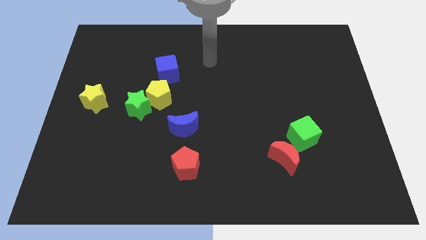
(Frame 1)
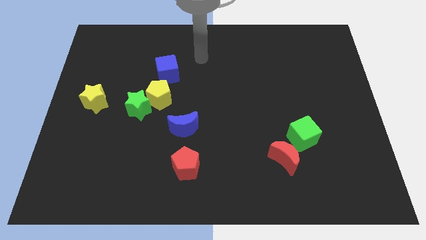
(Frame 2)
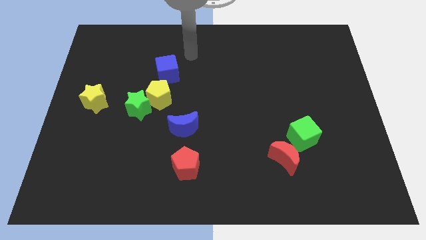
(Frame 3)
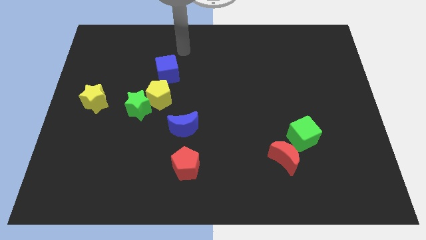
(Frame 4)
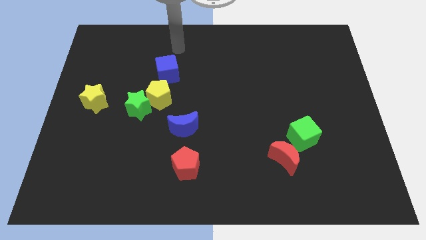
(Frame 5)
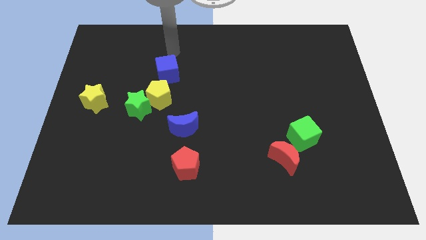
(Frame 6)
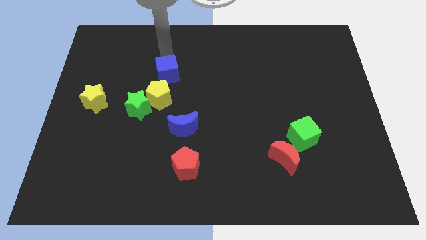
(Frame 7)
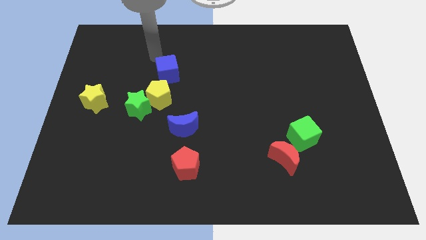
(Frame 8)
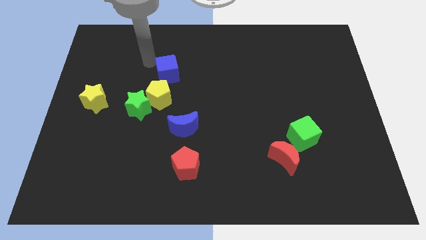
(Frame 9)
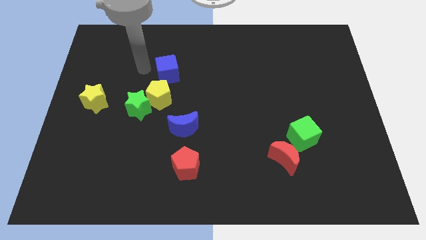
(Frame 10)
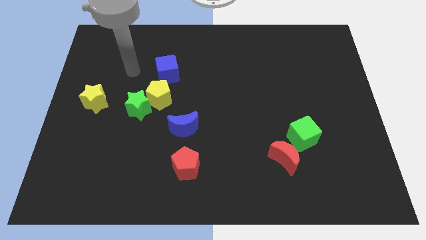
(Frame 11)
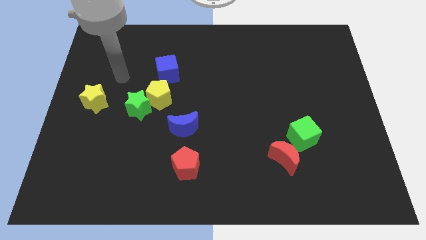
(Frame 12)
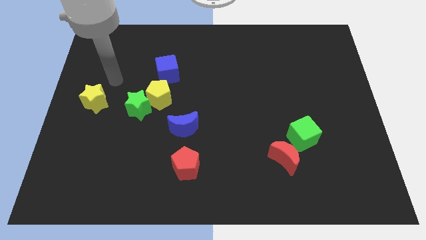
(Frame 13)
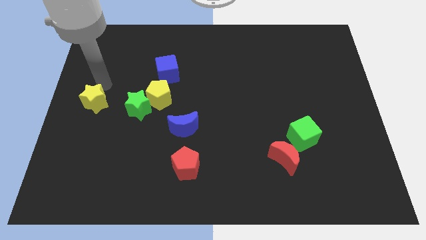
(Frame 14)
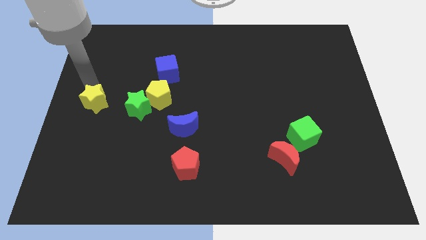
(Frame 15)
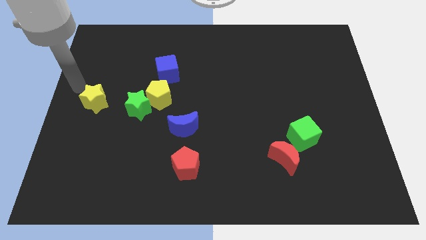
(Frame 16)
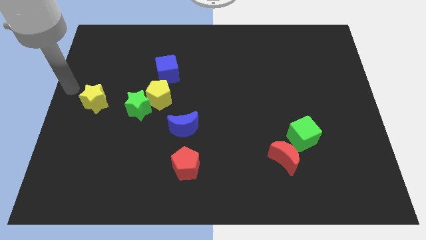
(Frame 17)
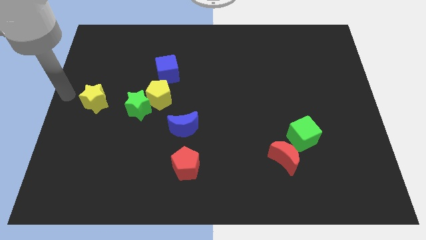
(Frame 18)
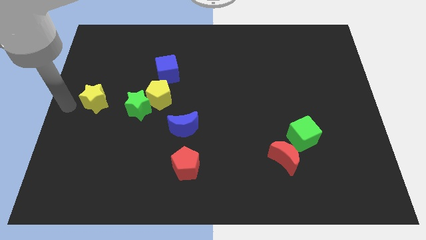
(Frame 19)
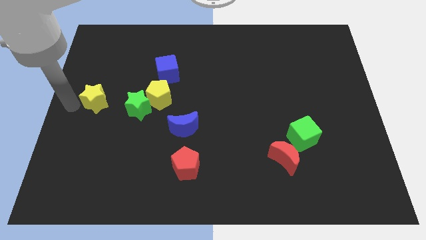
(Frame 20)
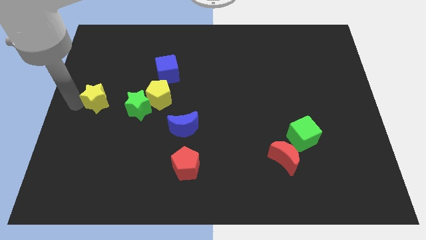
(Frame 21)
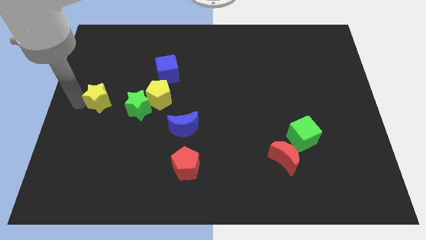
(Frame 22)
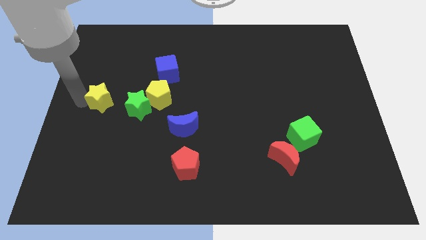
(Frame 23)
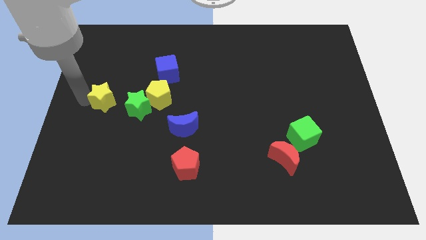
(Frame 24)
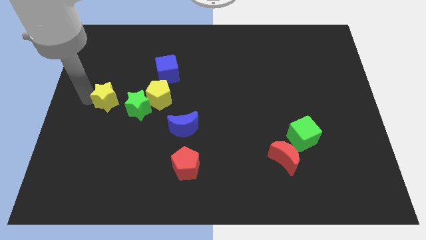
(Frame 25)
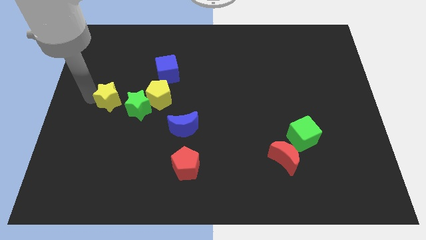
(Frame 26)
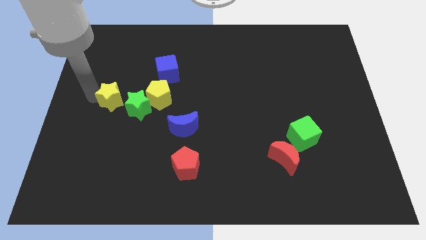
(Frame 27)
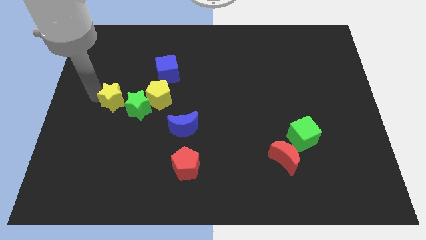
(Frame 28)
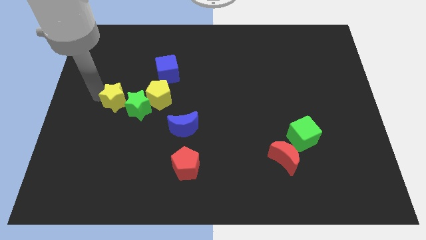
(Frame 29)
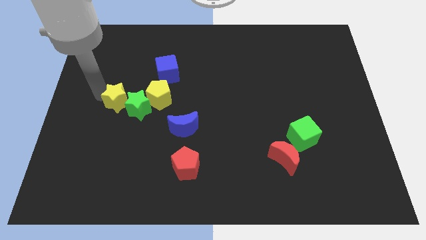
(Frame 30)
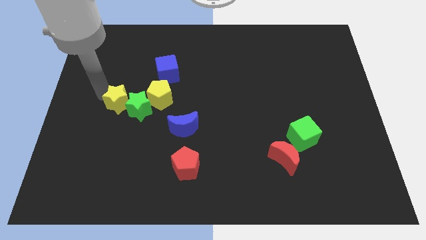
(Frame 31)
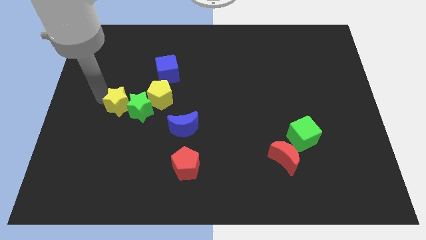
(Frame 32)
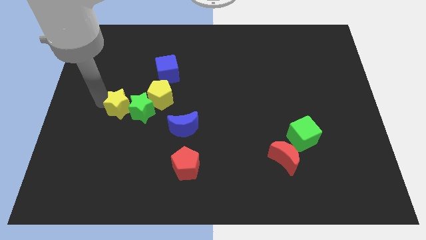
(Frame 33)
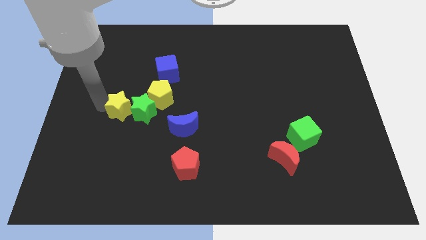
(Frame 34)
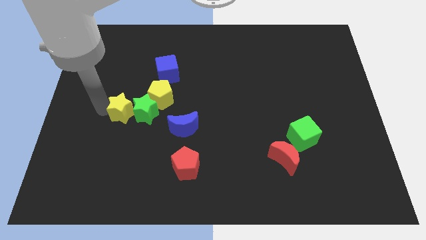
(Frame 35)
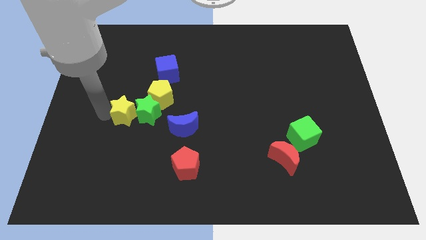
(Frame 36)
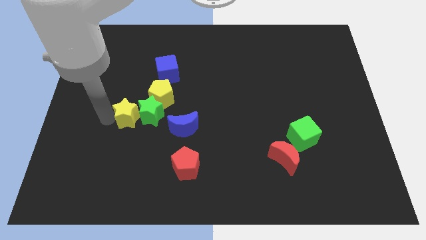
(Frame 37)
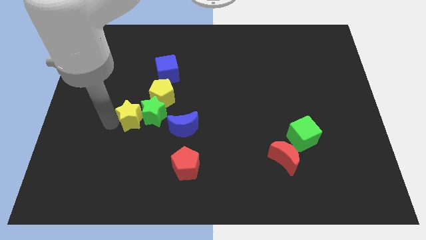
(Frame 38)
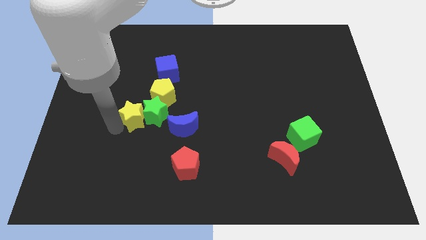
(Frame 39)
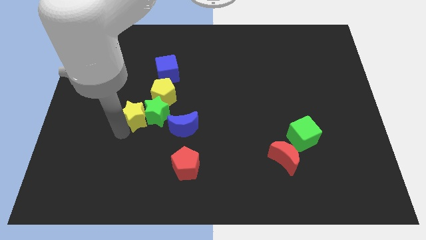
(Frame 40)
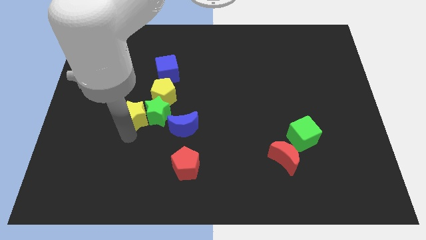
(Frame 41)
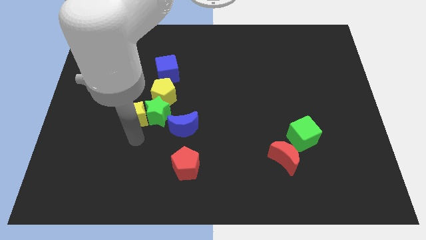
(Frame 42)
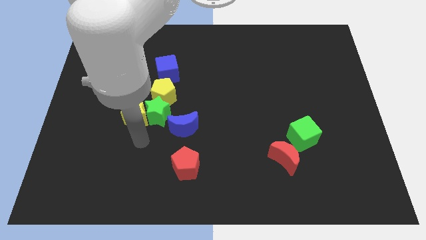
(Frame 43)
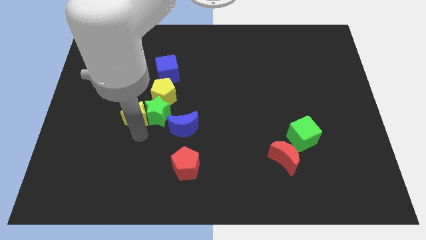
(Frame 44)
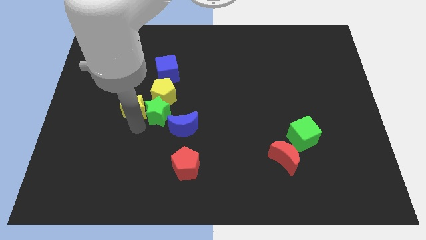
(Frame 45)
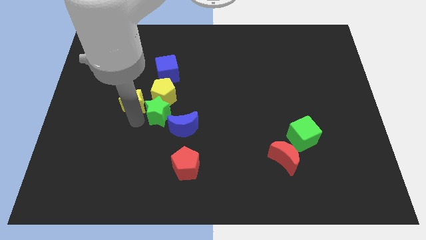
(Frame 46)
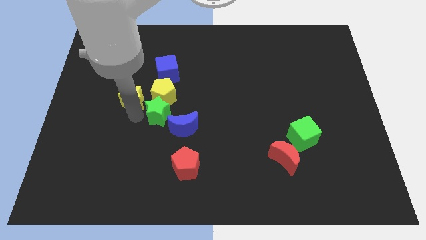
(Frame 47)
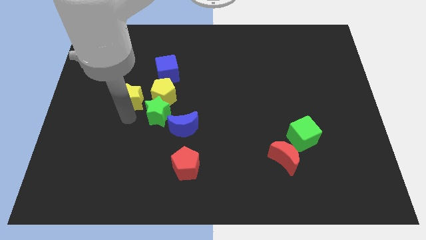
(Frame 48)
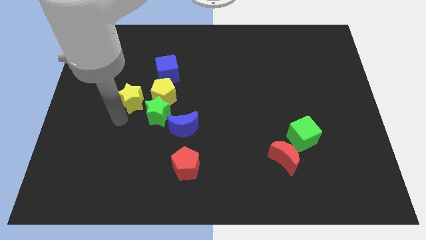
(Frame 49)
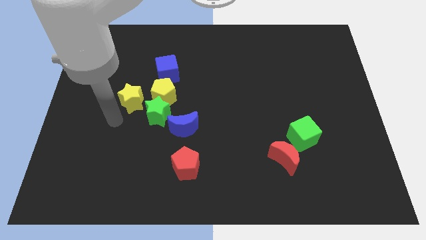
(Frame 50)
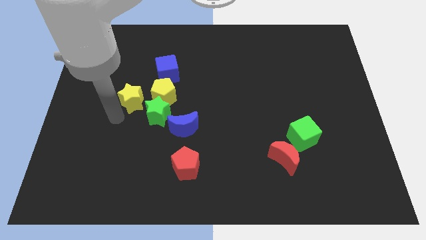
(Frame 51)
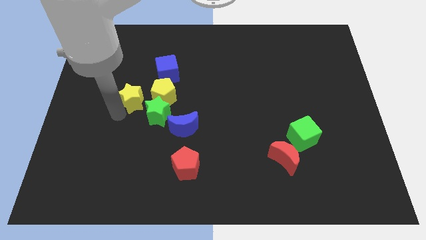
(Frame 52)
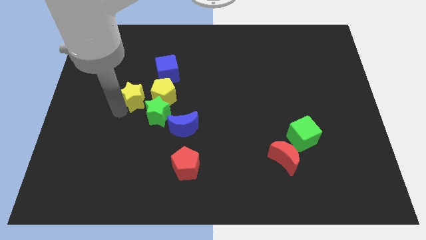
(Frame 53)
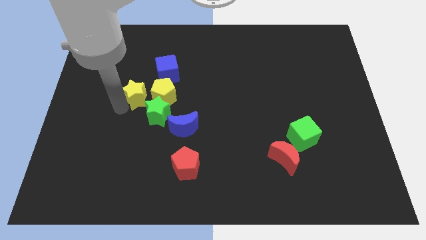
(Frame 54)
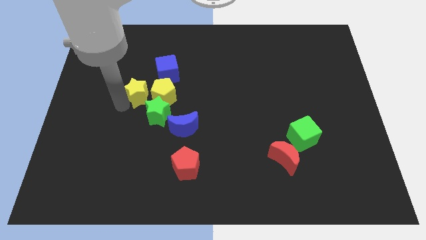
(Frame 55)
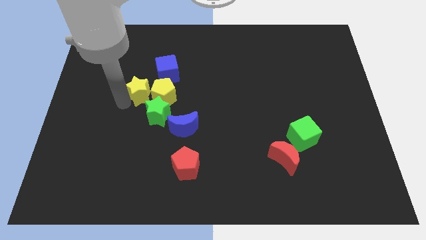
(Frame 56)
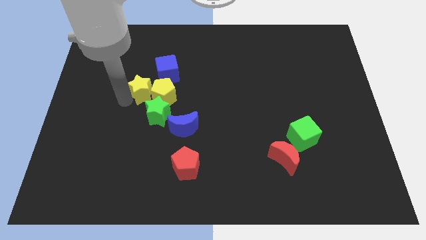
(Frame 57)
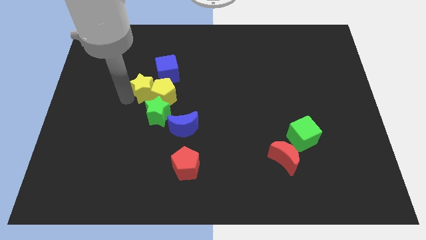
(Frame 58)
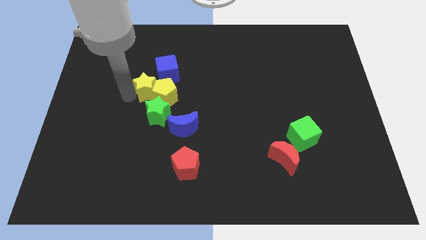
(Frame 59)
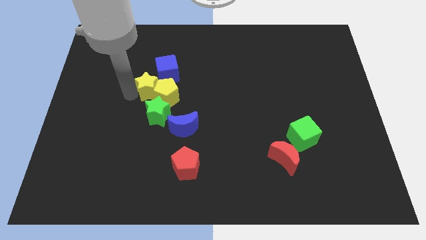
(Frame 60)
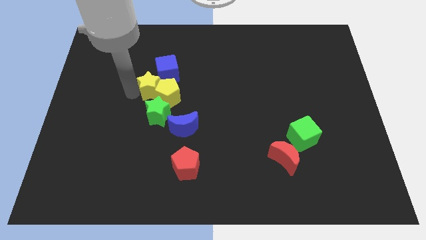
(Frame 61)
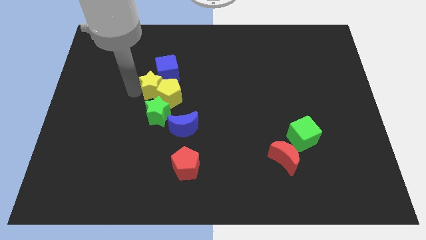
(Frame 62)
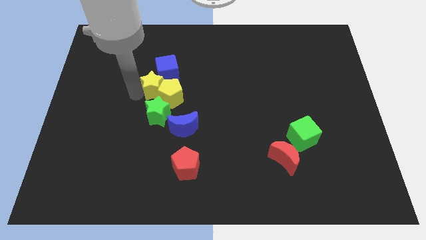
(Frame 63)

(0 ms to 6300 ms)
slide the yellow star towards the blue cube

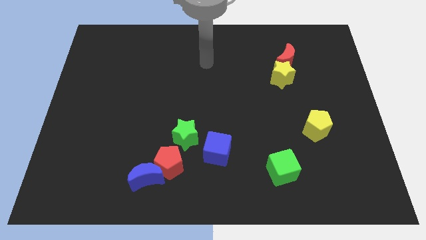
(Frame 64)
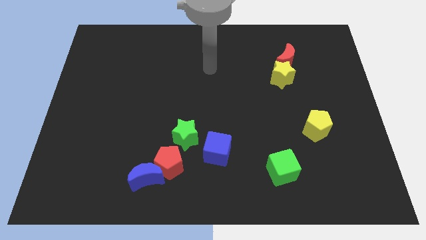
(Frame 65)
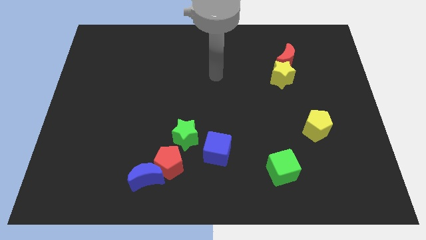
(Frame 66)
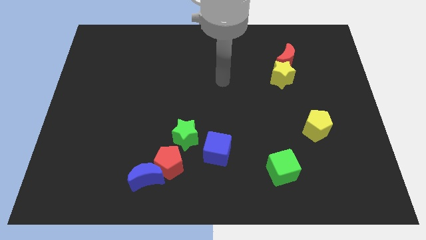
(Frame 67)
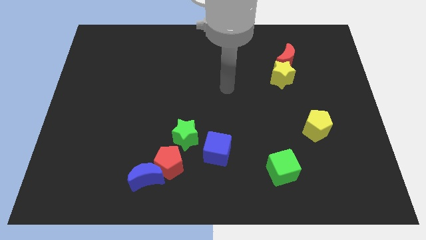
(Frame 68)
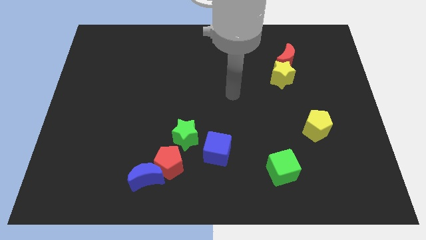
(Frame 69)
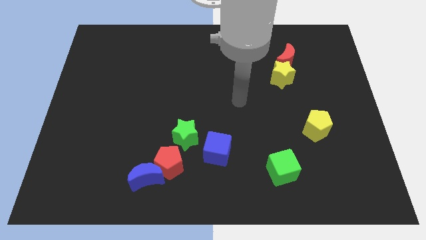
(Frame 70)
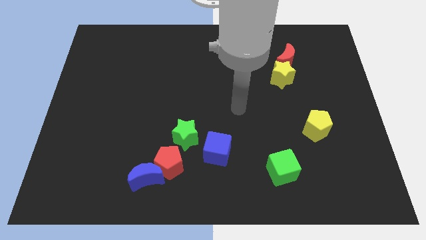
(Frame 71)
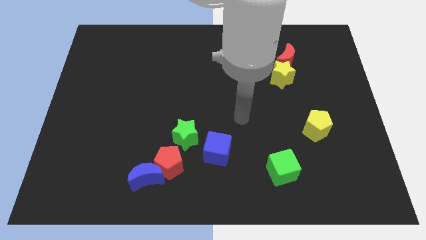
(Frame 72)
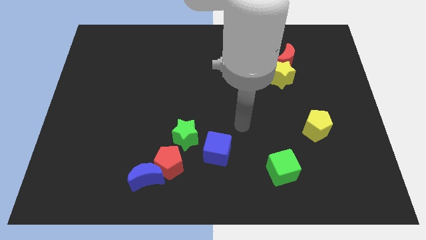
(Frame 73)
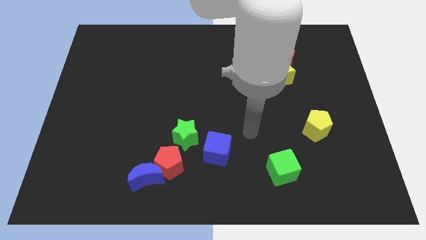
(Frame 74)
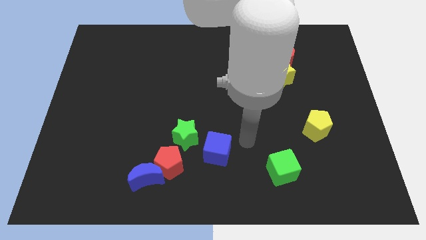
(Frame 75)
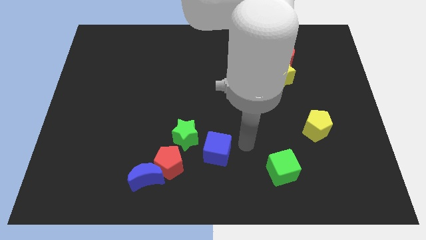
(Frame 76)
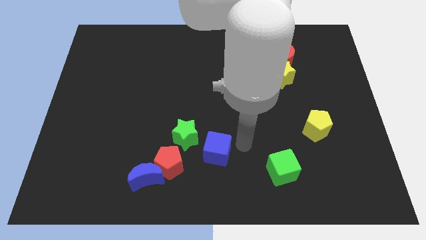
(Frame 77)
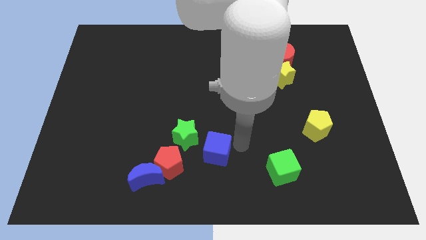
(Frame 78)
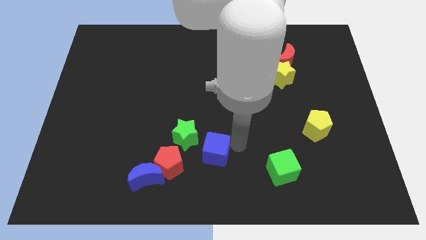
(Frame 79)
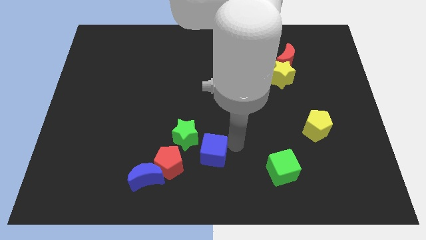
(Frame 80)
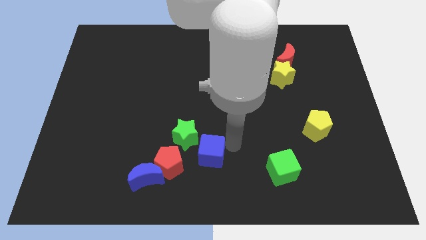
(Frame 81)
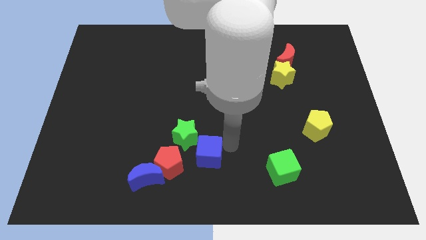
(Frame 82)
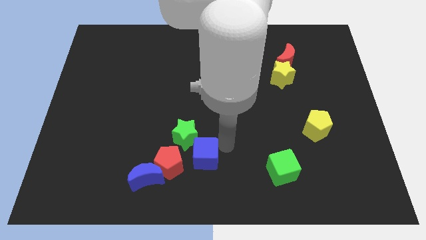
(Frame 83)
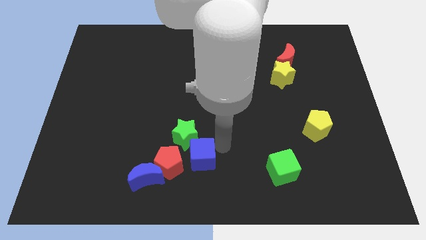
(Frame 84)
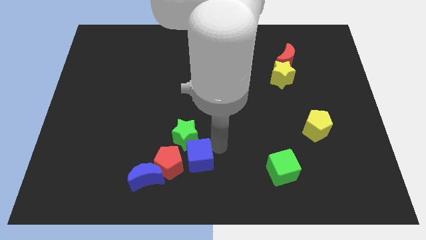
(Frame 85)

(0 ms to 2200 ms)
slide the blue cube next to the red pentagon
